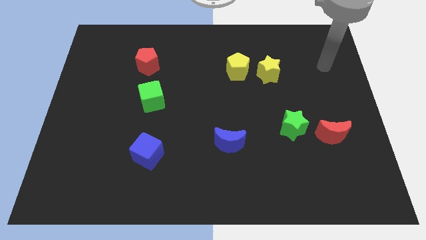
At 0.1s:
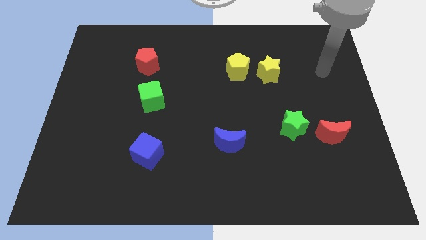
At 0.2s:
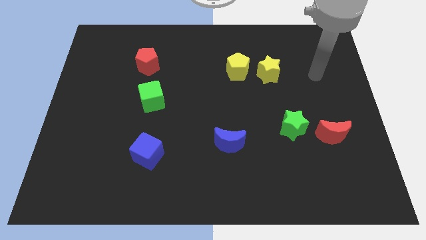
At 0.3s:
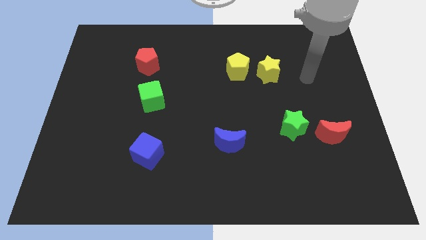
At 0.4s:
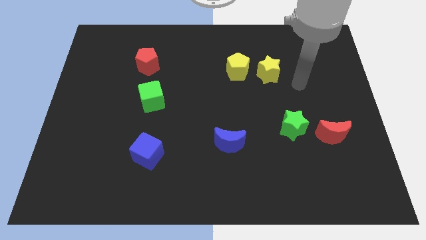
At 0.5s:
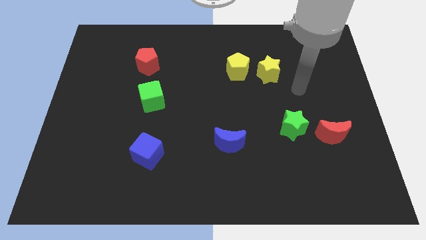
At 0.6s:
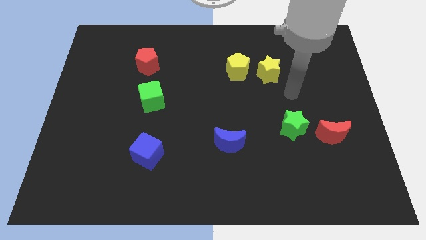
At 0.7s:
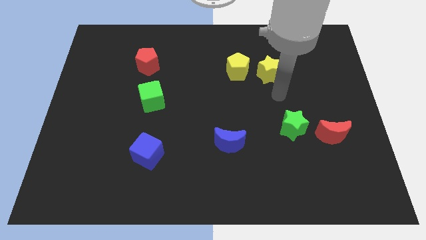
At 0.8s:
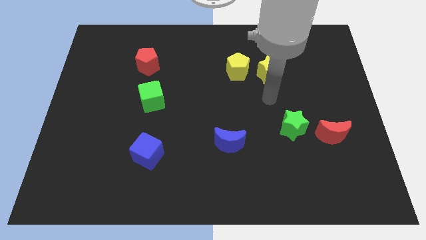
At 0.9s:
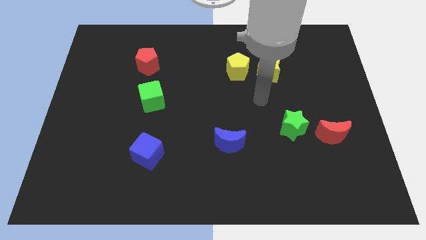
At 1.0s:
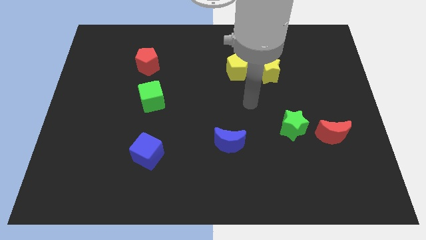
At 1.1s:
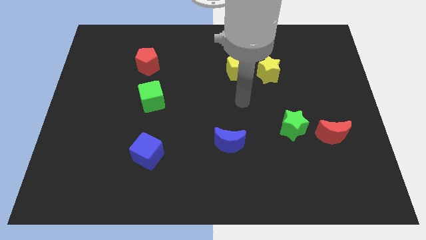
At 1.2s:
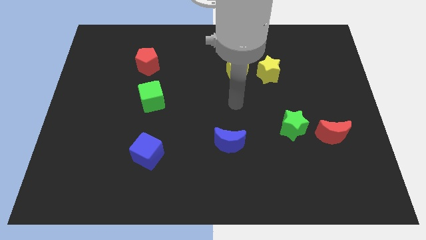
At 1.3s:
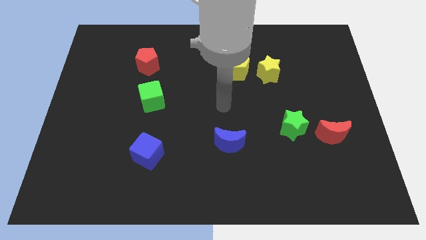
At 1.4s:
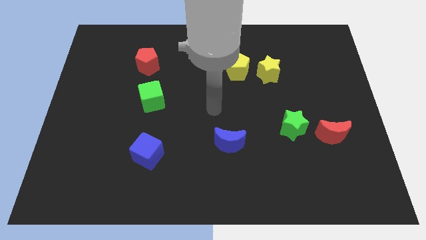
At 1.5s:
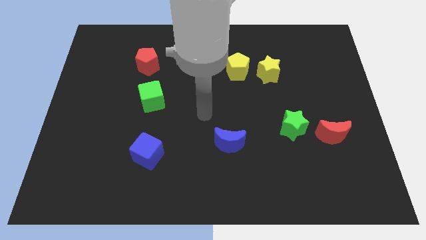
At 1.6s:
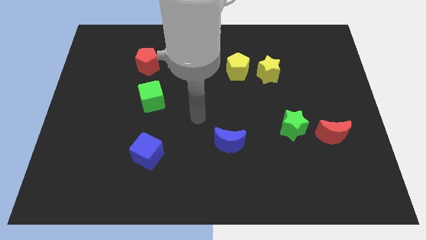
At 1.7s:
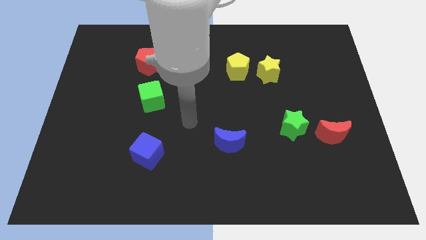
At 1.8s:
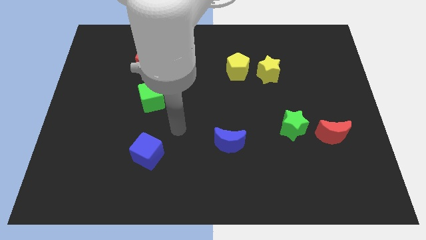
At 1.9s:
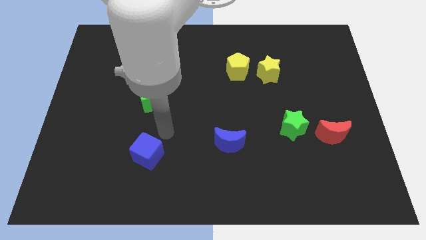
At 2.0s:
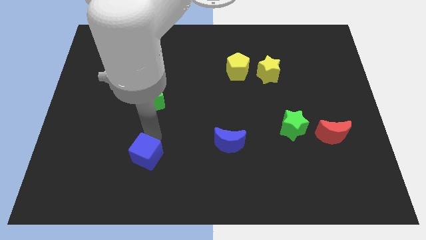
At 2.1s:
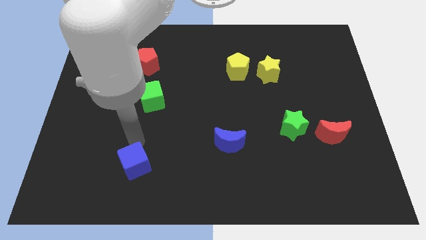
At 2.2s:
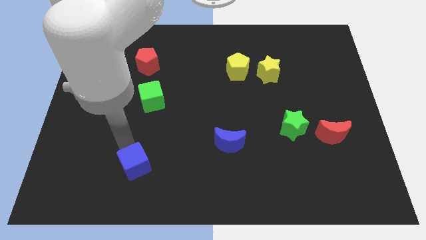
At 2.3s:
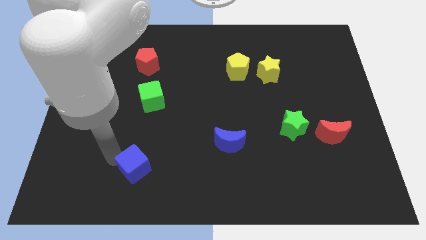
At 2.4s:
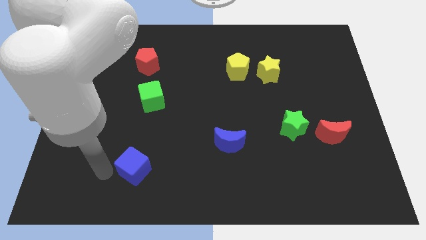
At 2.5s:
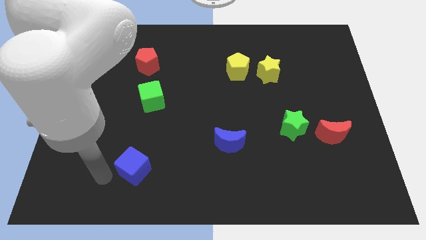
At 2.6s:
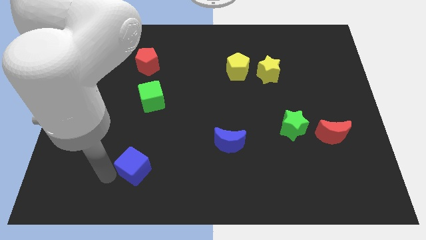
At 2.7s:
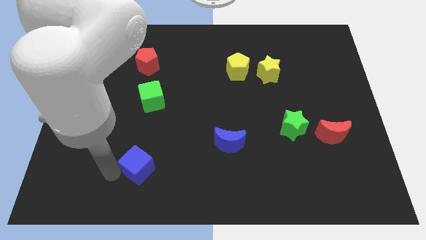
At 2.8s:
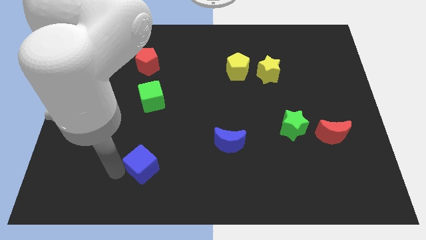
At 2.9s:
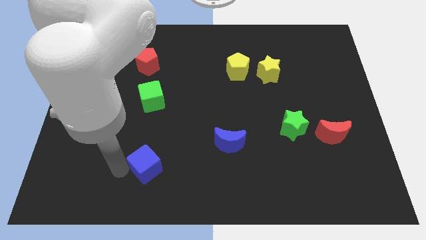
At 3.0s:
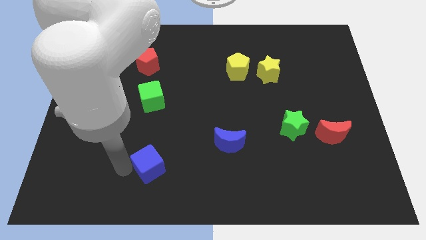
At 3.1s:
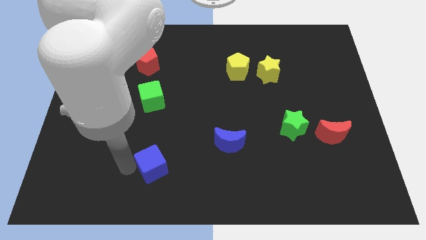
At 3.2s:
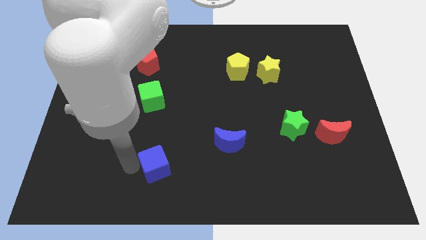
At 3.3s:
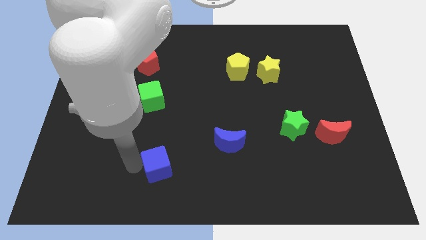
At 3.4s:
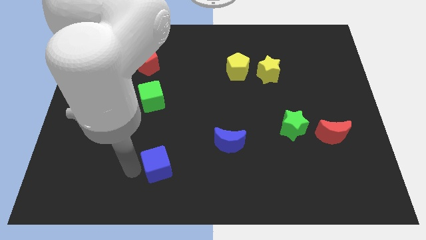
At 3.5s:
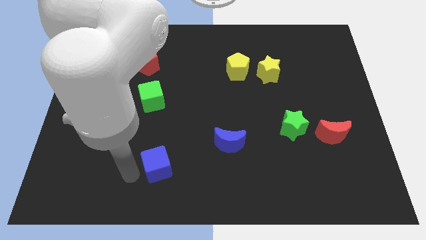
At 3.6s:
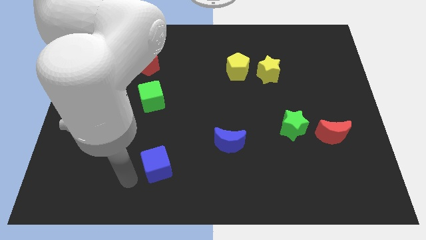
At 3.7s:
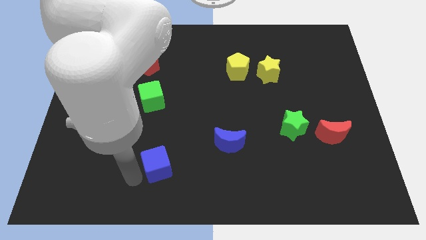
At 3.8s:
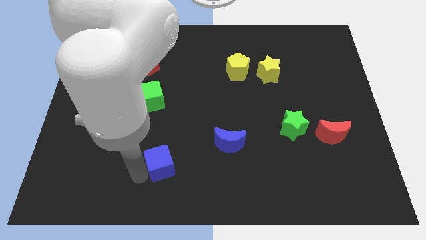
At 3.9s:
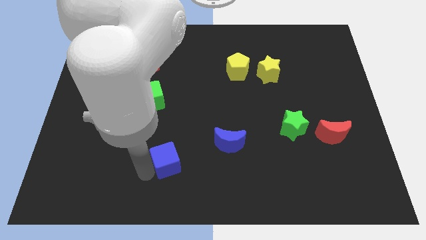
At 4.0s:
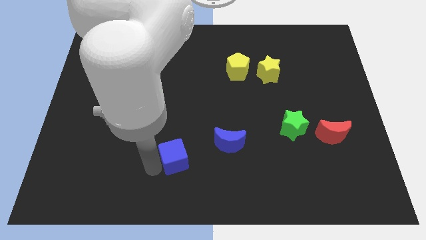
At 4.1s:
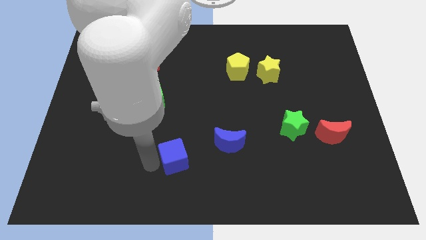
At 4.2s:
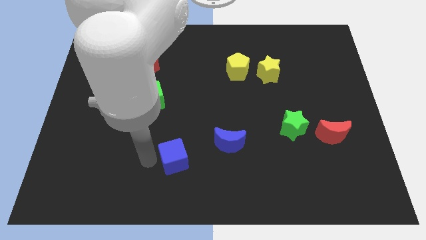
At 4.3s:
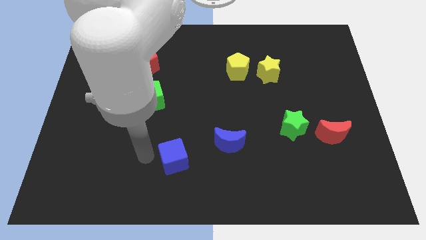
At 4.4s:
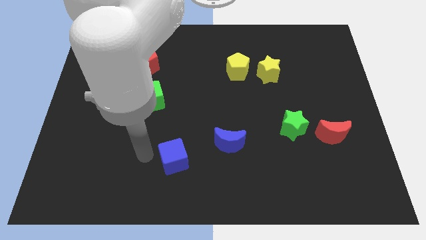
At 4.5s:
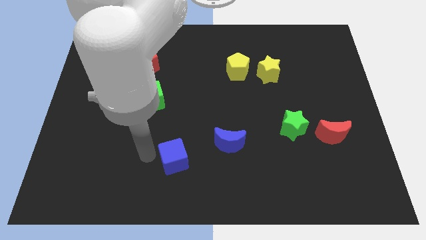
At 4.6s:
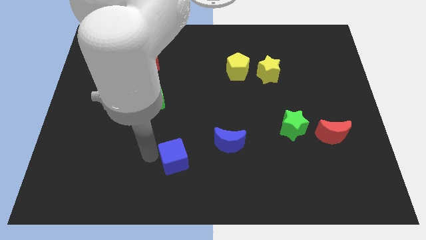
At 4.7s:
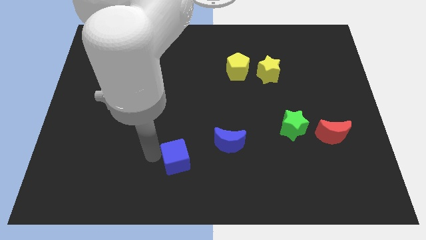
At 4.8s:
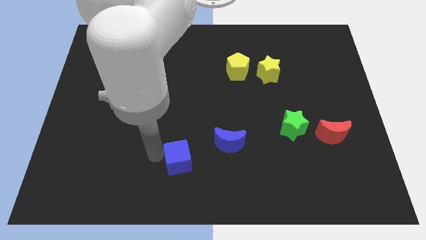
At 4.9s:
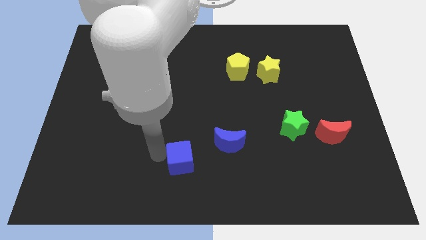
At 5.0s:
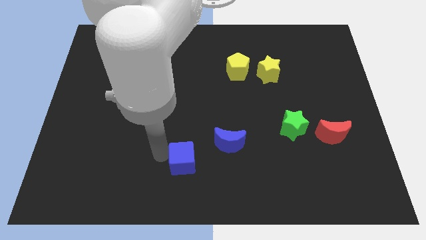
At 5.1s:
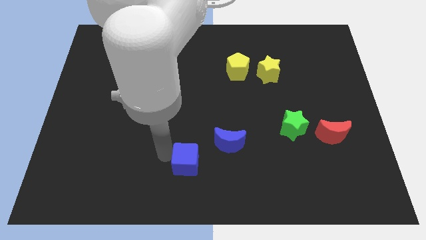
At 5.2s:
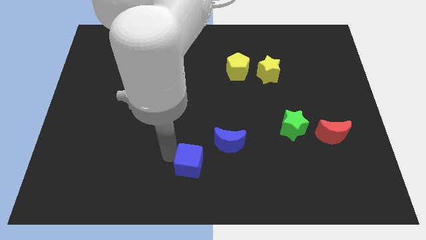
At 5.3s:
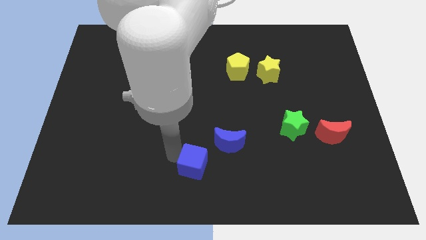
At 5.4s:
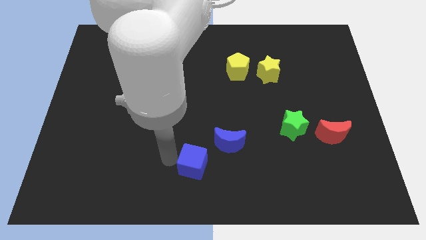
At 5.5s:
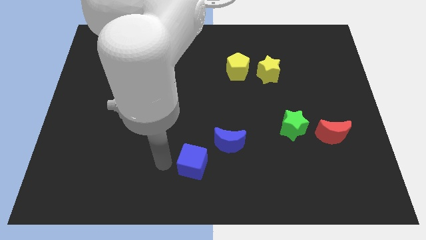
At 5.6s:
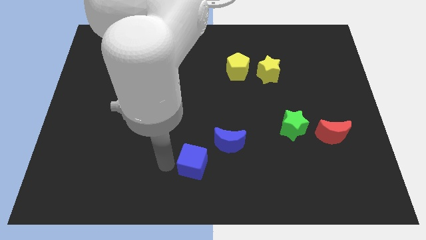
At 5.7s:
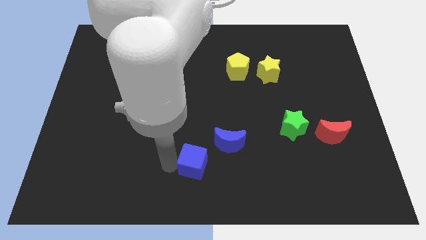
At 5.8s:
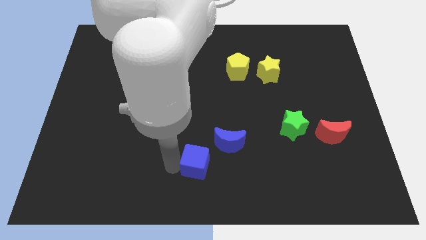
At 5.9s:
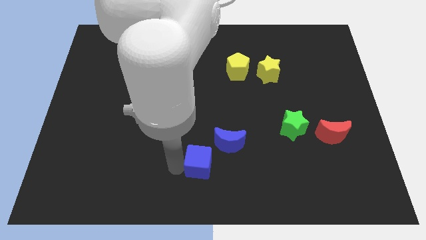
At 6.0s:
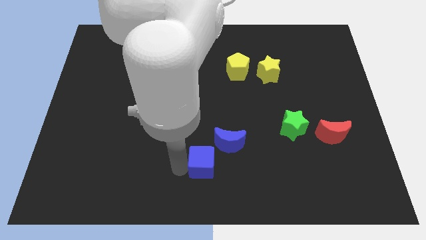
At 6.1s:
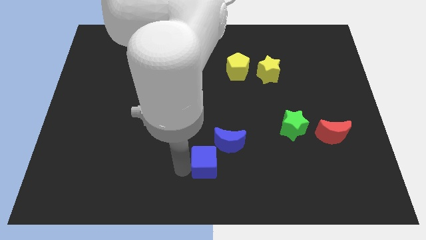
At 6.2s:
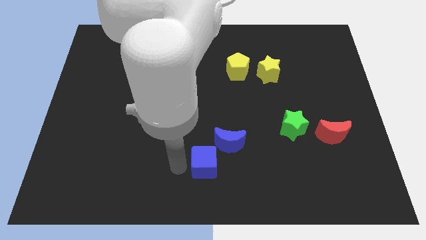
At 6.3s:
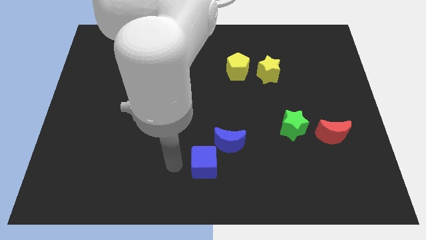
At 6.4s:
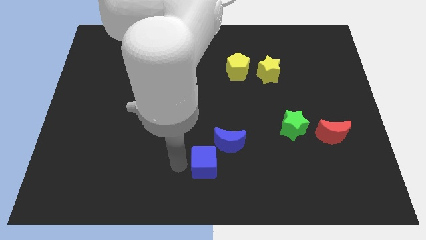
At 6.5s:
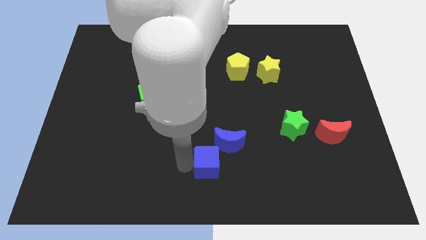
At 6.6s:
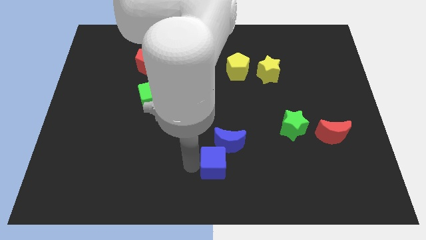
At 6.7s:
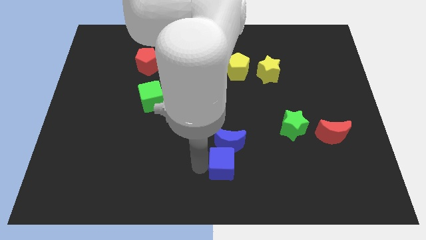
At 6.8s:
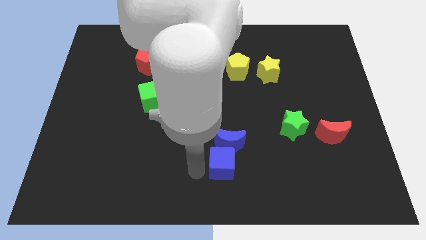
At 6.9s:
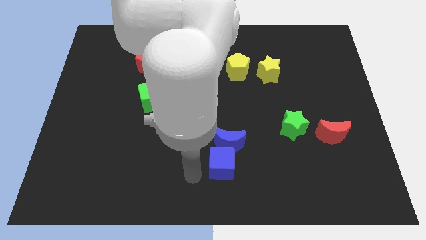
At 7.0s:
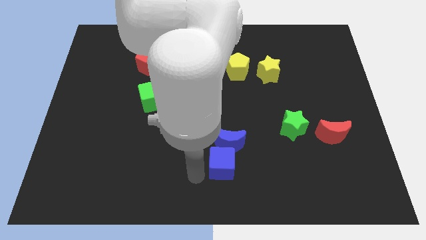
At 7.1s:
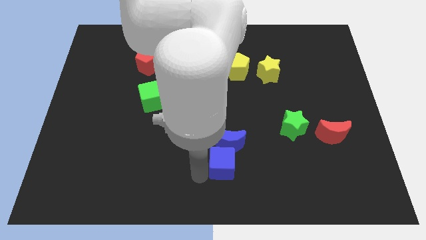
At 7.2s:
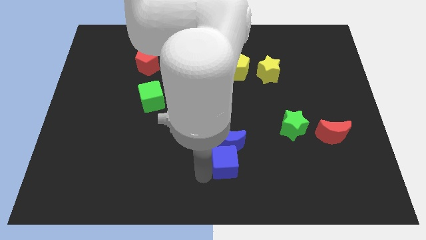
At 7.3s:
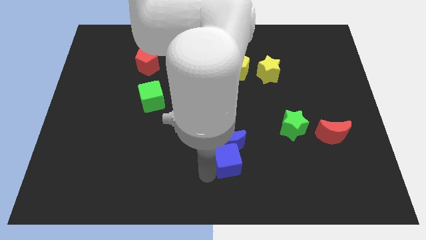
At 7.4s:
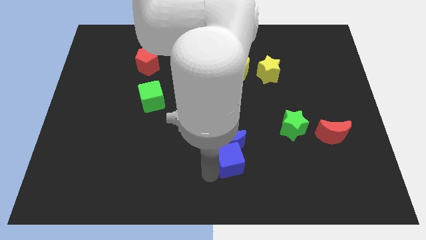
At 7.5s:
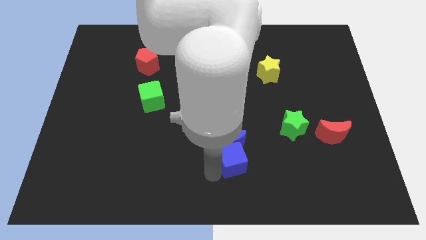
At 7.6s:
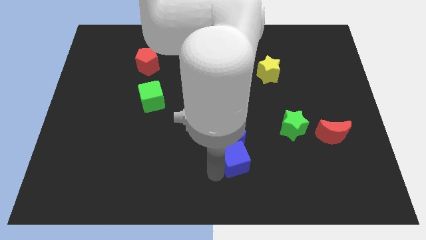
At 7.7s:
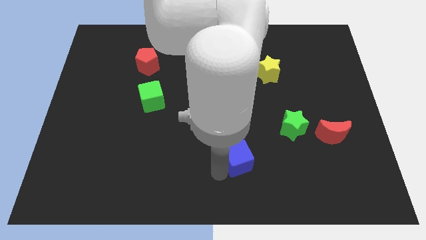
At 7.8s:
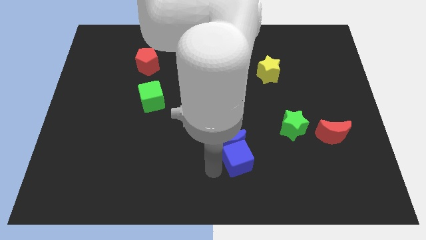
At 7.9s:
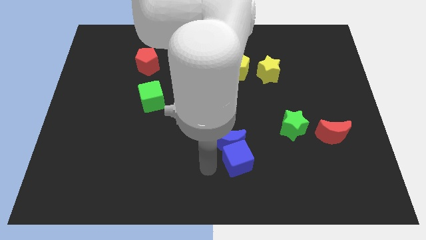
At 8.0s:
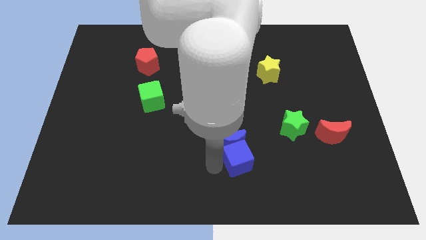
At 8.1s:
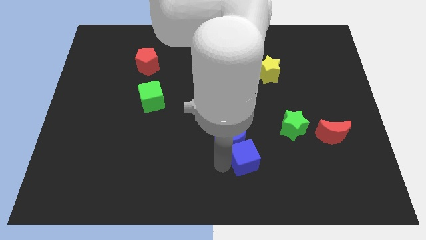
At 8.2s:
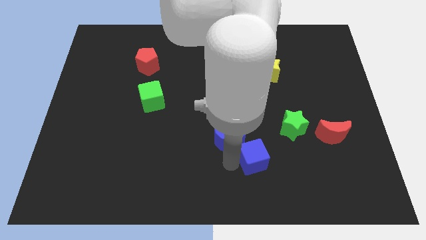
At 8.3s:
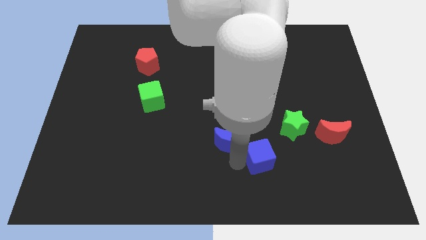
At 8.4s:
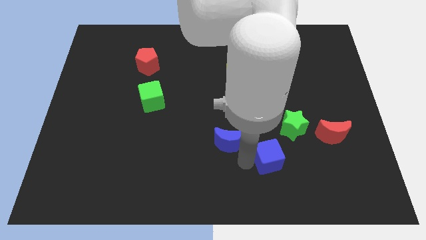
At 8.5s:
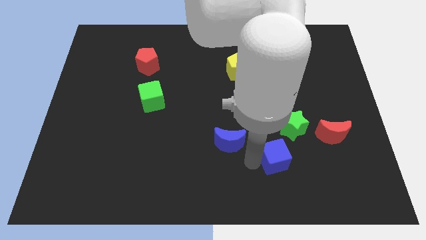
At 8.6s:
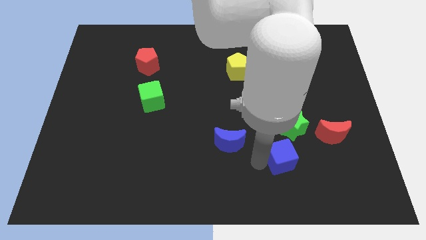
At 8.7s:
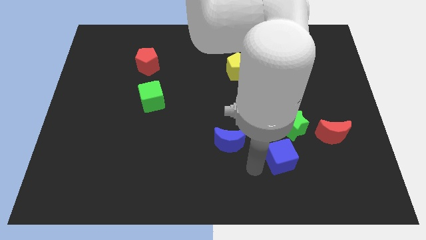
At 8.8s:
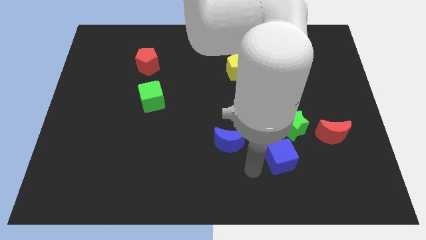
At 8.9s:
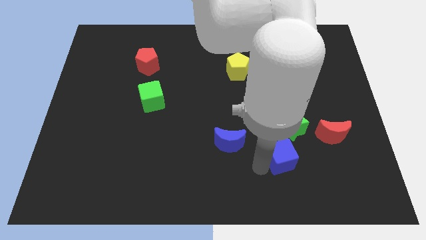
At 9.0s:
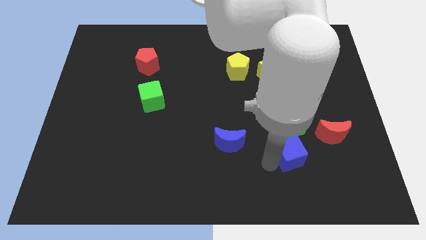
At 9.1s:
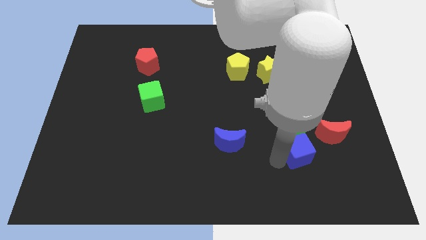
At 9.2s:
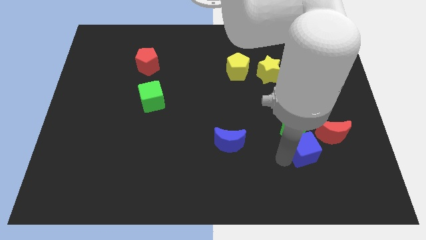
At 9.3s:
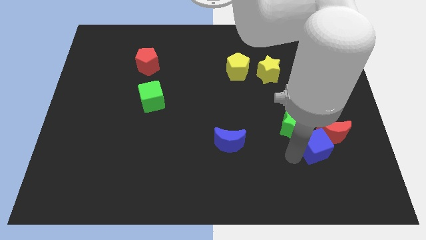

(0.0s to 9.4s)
slide the blue cube to the red moon
